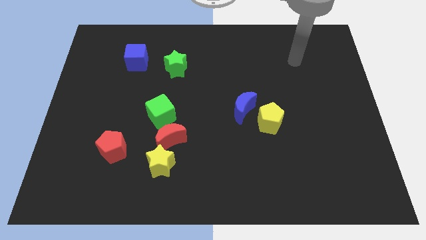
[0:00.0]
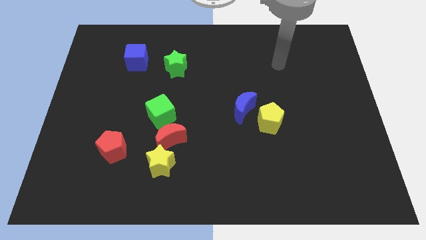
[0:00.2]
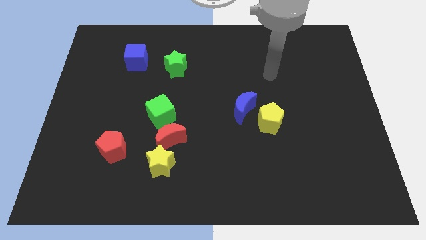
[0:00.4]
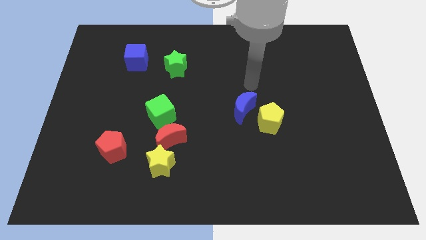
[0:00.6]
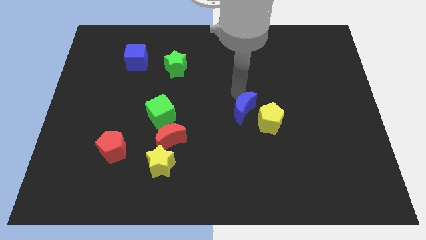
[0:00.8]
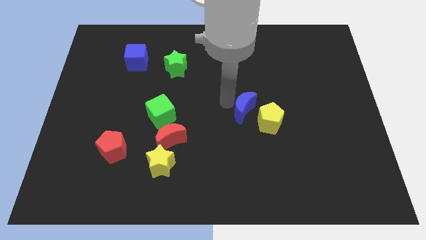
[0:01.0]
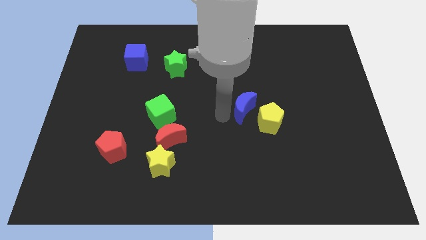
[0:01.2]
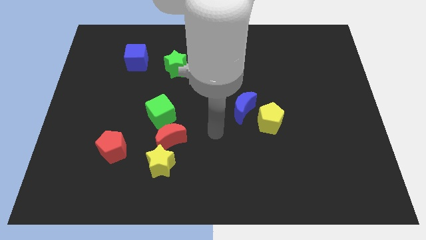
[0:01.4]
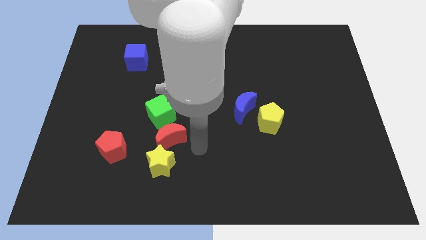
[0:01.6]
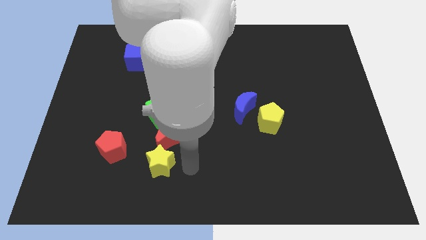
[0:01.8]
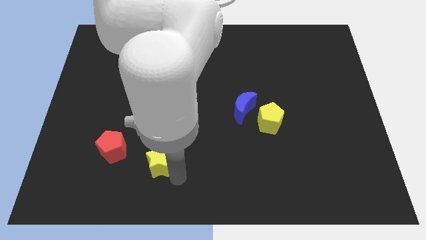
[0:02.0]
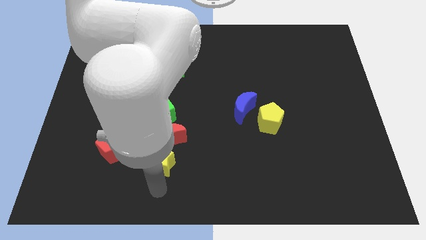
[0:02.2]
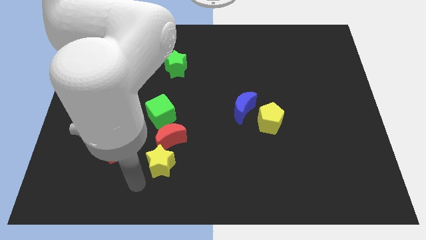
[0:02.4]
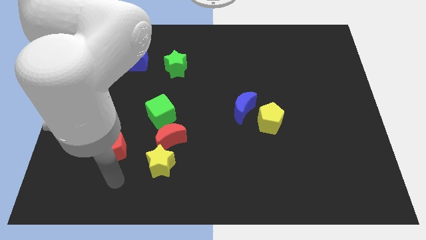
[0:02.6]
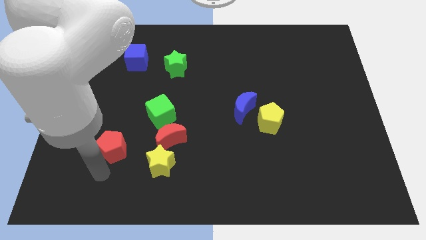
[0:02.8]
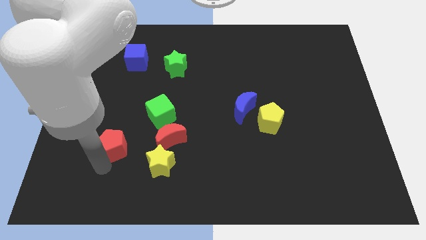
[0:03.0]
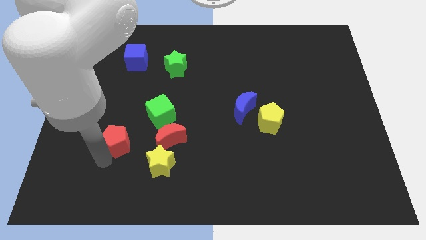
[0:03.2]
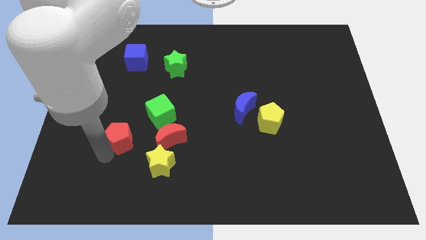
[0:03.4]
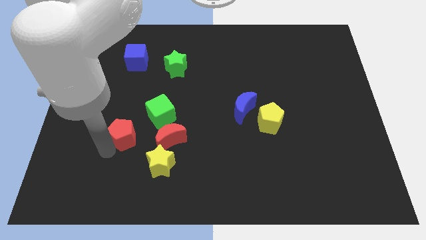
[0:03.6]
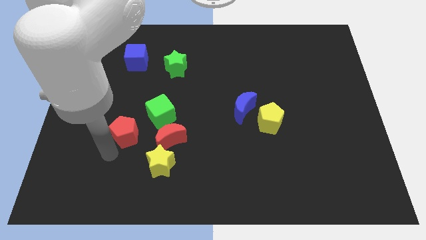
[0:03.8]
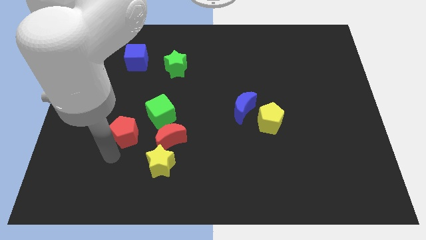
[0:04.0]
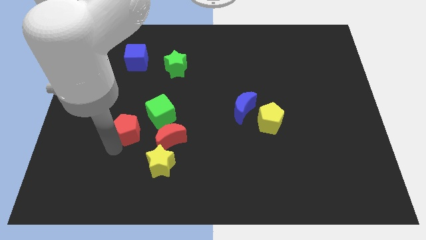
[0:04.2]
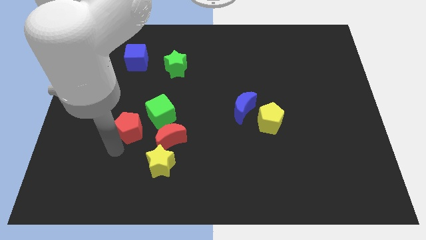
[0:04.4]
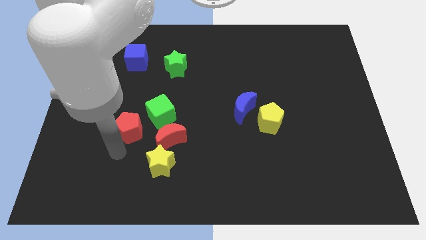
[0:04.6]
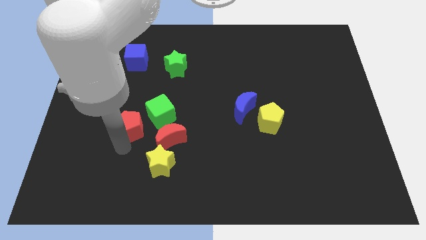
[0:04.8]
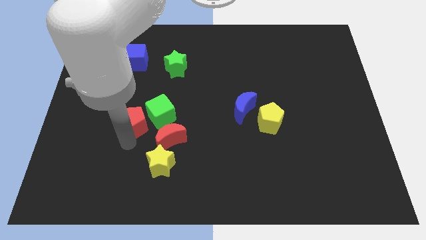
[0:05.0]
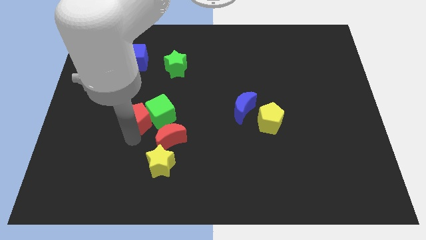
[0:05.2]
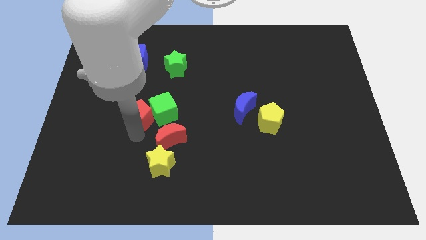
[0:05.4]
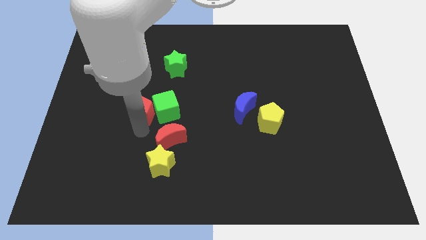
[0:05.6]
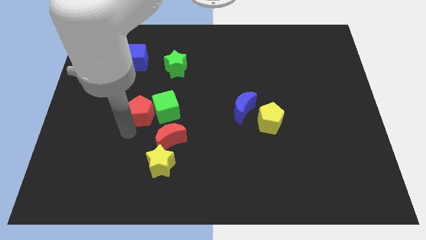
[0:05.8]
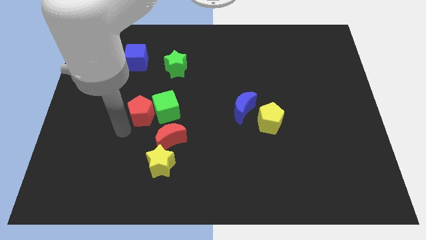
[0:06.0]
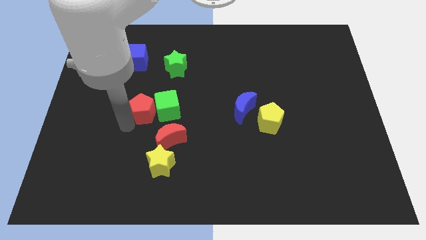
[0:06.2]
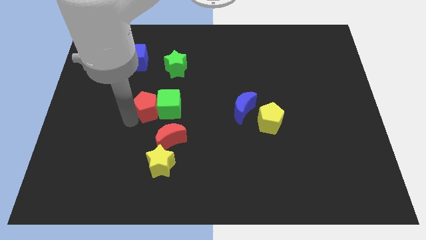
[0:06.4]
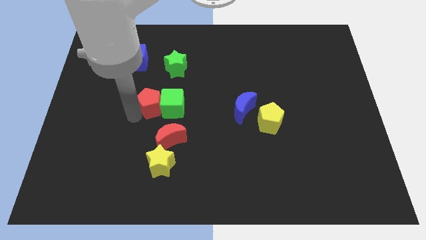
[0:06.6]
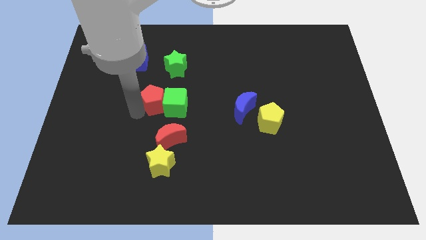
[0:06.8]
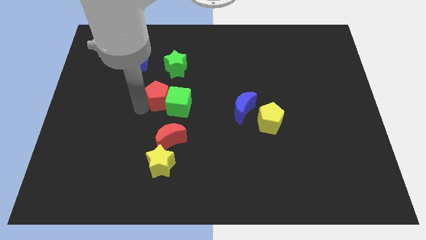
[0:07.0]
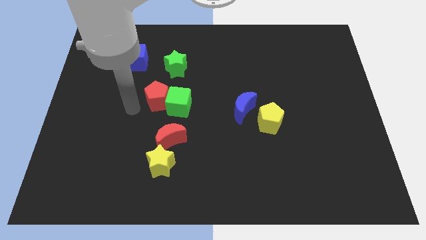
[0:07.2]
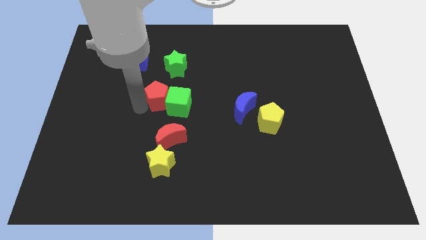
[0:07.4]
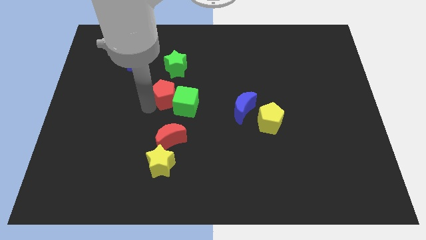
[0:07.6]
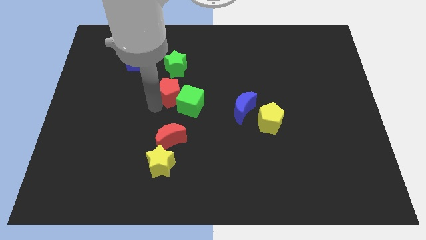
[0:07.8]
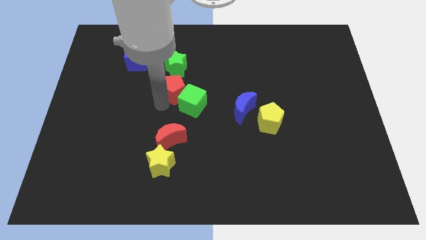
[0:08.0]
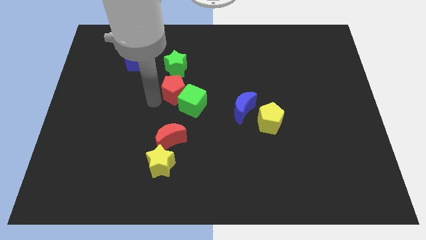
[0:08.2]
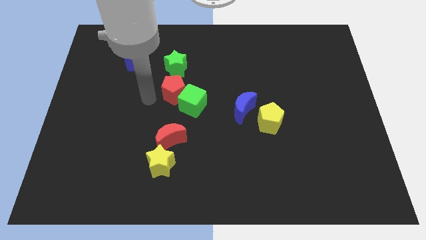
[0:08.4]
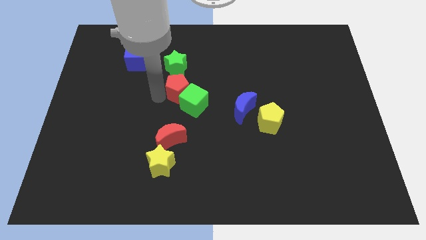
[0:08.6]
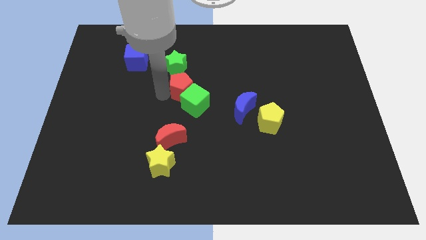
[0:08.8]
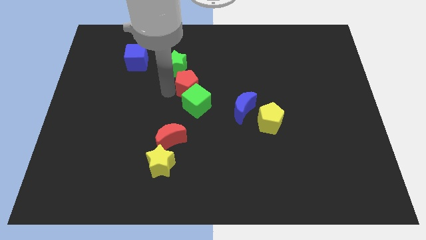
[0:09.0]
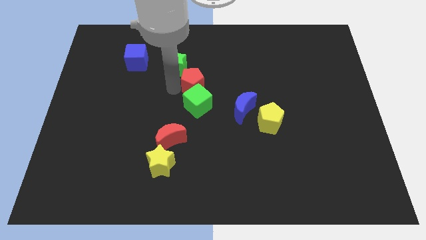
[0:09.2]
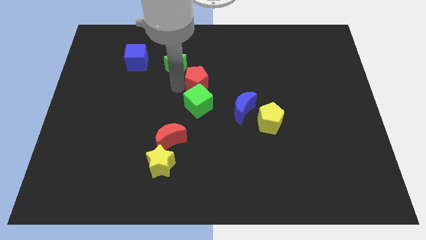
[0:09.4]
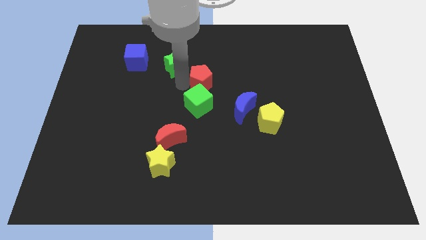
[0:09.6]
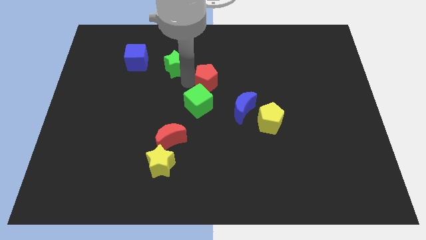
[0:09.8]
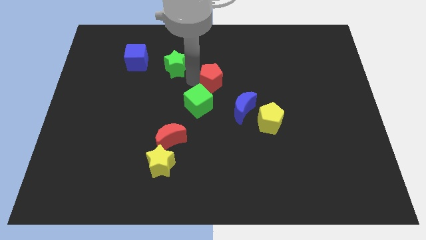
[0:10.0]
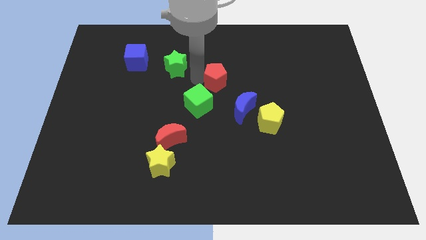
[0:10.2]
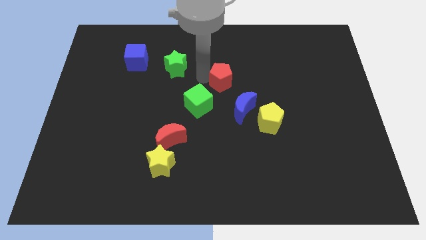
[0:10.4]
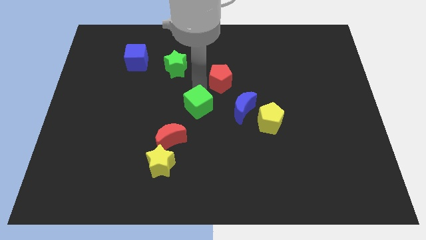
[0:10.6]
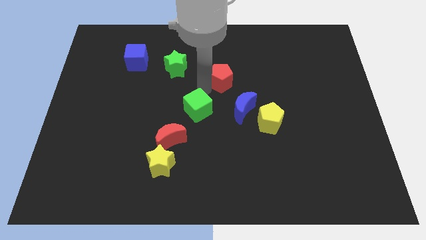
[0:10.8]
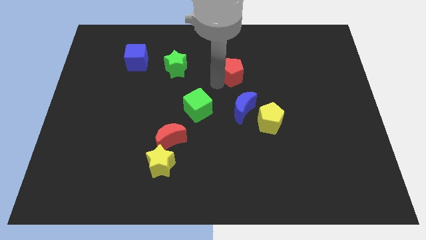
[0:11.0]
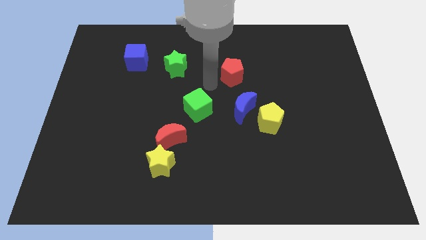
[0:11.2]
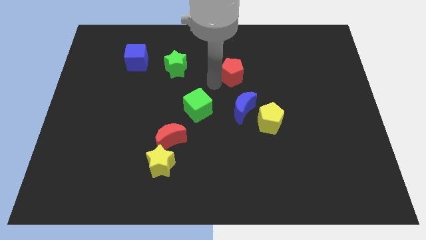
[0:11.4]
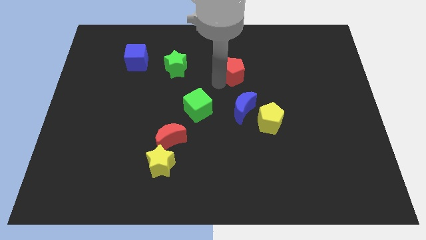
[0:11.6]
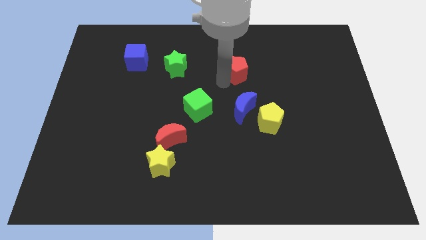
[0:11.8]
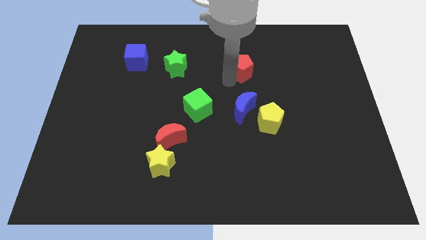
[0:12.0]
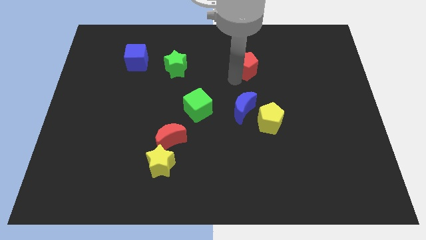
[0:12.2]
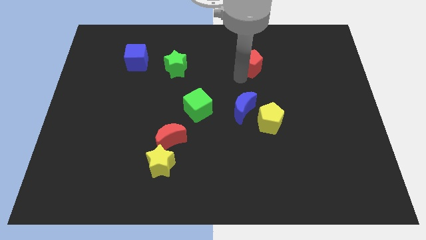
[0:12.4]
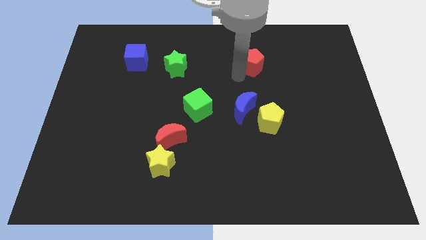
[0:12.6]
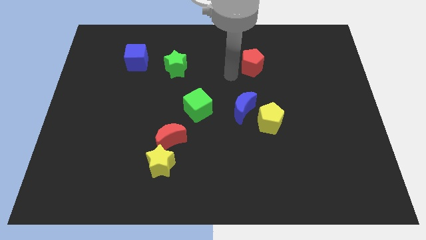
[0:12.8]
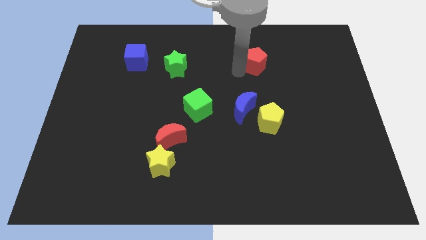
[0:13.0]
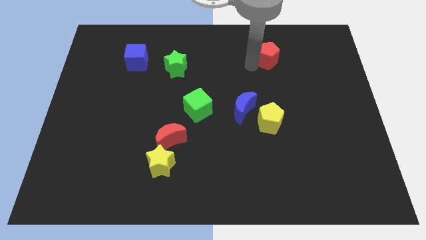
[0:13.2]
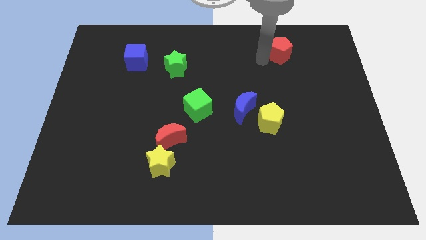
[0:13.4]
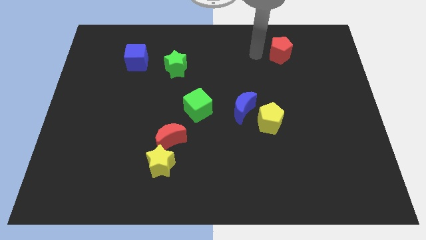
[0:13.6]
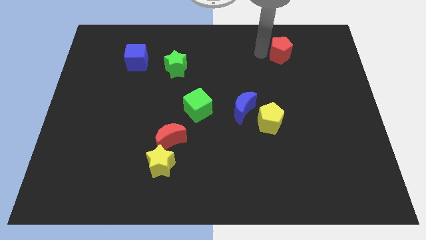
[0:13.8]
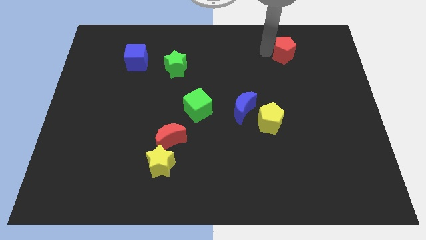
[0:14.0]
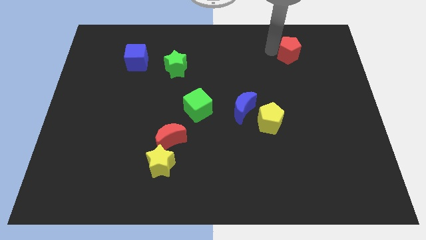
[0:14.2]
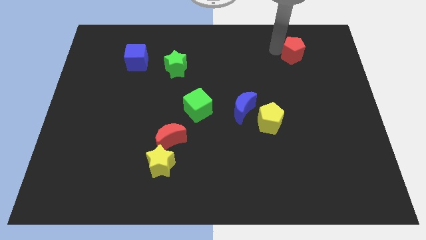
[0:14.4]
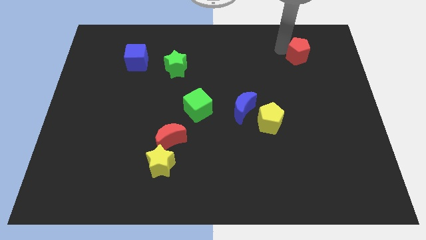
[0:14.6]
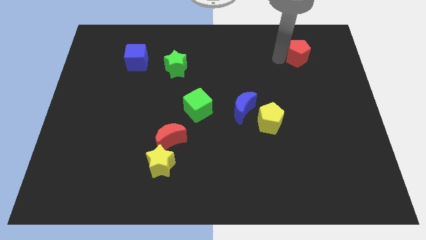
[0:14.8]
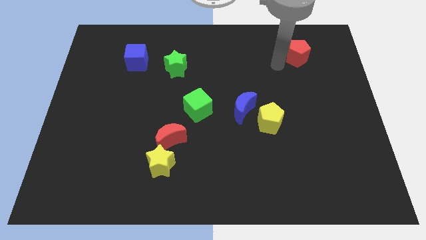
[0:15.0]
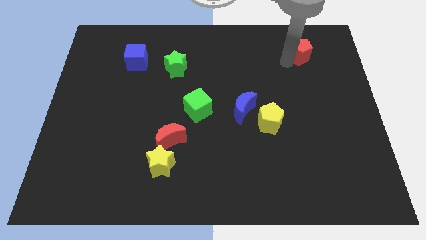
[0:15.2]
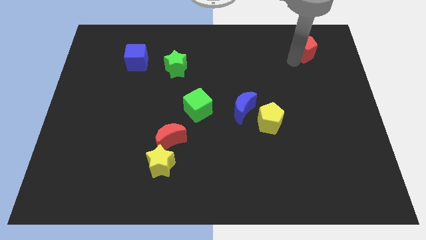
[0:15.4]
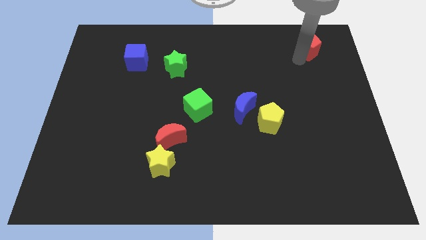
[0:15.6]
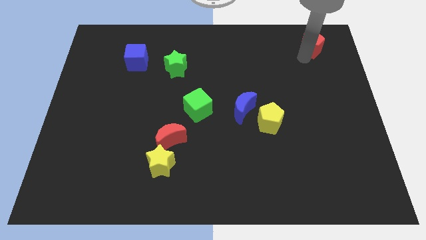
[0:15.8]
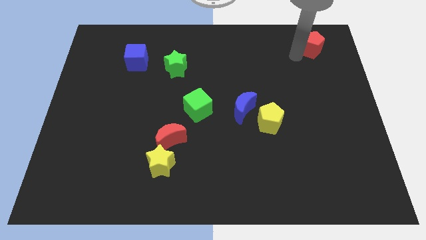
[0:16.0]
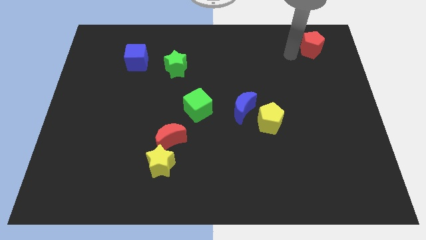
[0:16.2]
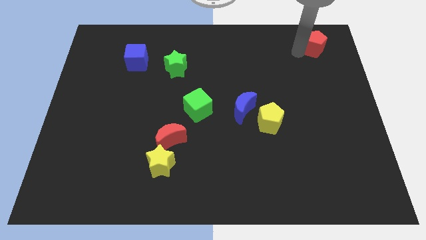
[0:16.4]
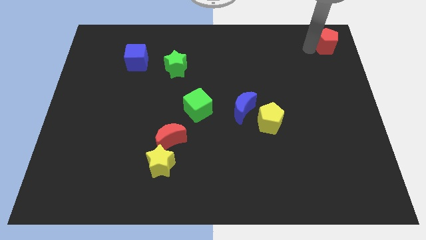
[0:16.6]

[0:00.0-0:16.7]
slide the red pentagon to the top right
